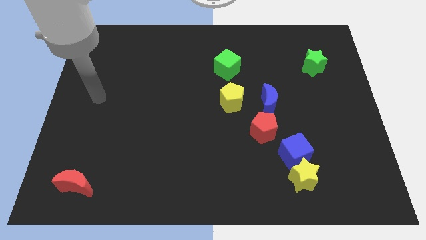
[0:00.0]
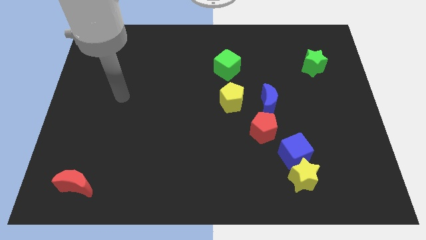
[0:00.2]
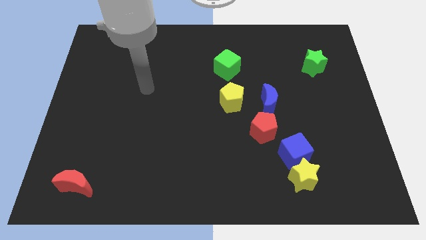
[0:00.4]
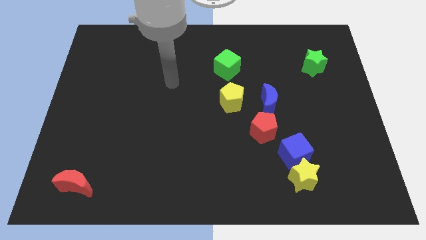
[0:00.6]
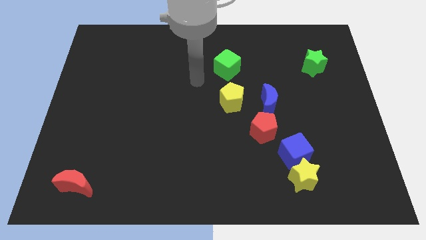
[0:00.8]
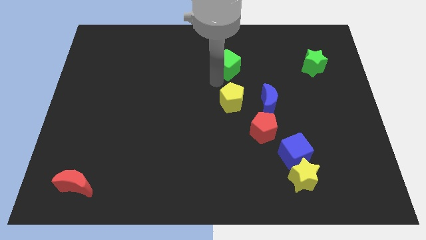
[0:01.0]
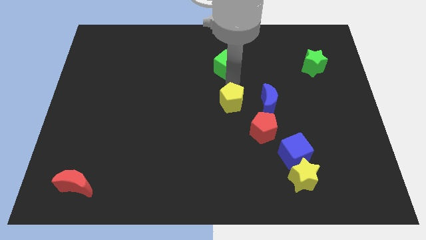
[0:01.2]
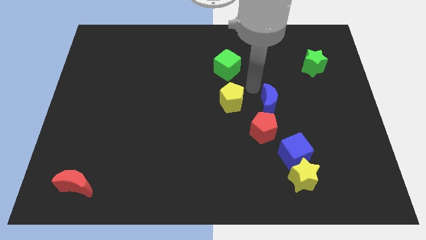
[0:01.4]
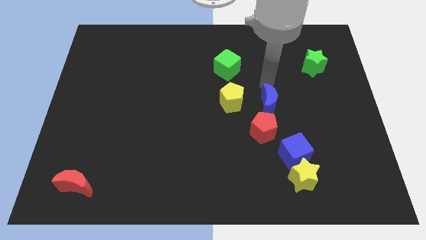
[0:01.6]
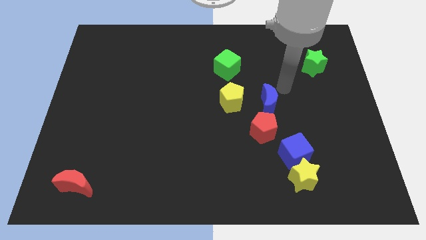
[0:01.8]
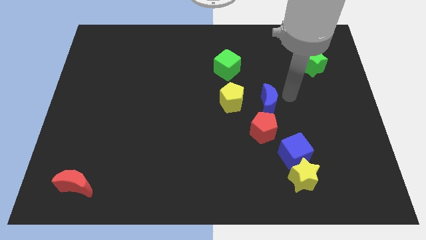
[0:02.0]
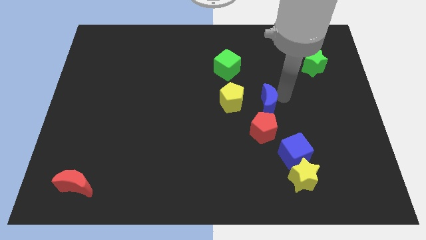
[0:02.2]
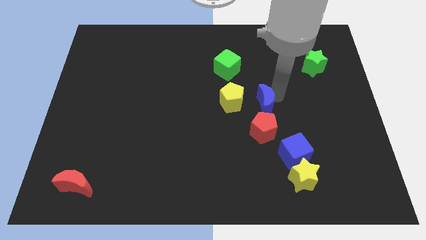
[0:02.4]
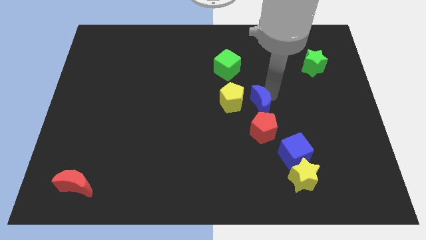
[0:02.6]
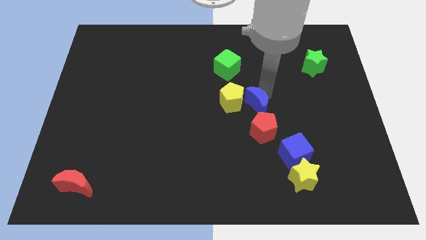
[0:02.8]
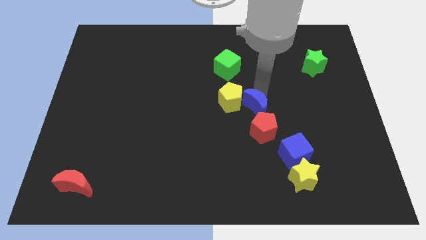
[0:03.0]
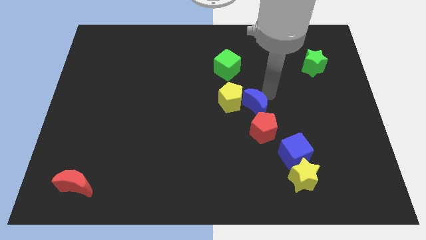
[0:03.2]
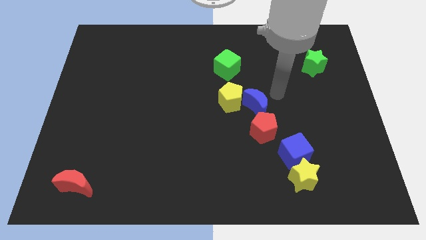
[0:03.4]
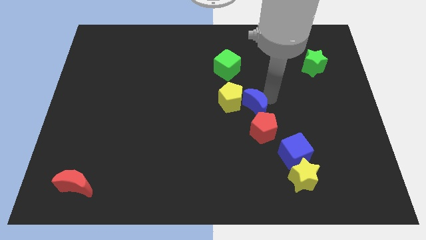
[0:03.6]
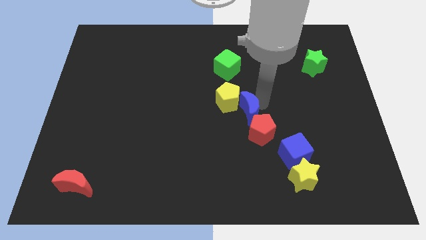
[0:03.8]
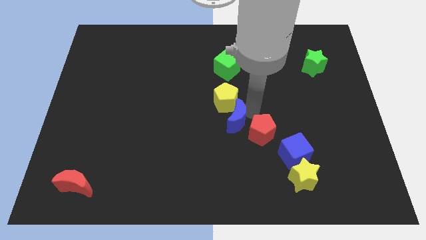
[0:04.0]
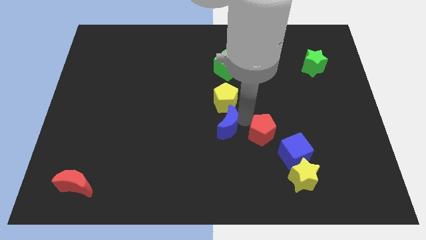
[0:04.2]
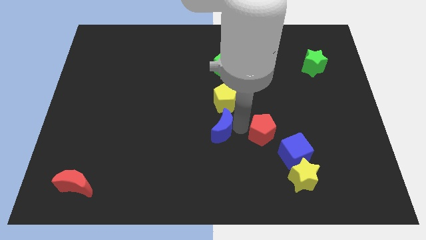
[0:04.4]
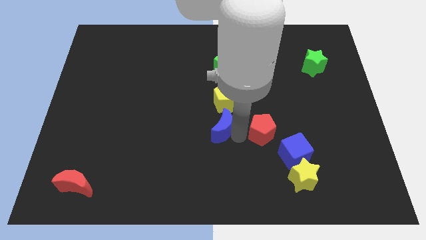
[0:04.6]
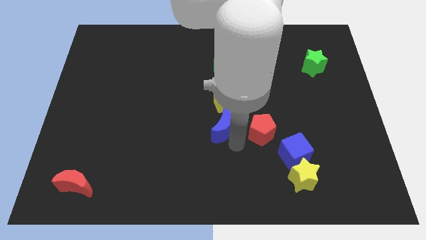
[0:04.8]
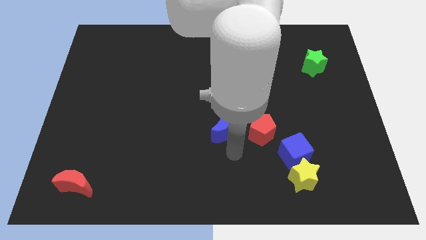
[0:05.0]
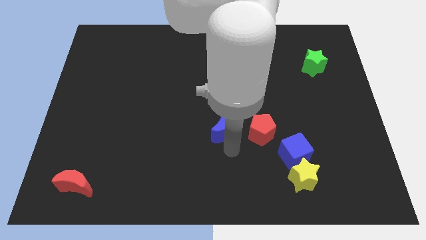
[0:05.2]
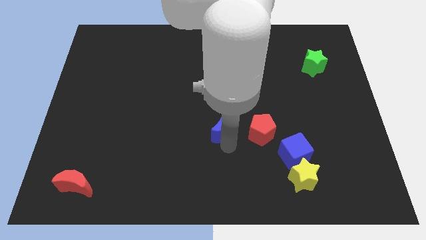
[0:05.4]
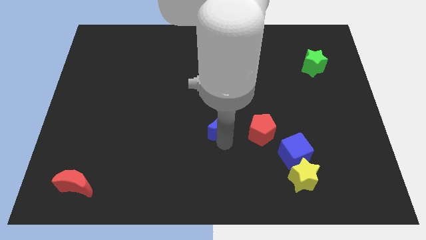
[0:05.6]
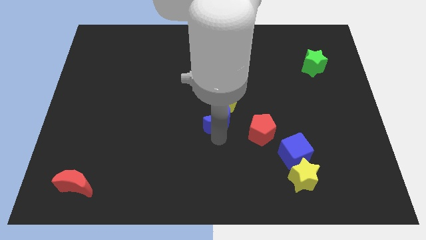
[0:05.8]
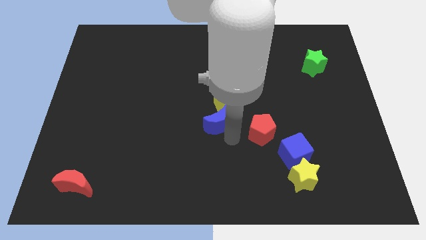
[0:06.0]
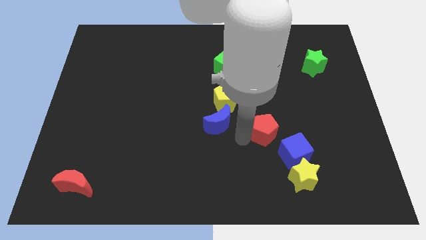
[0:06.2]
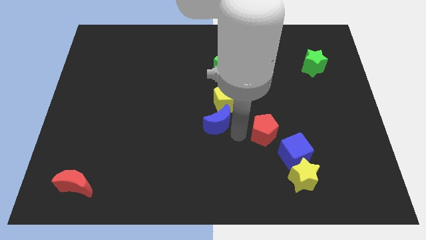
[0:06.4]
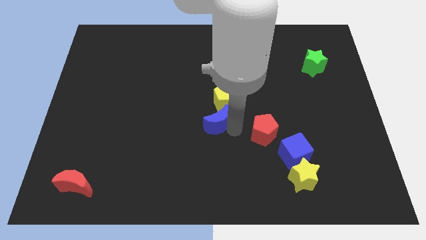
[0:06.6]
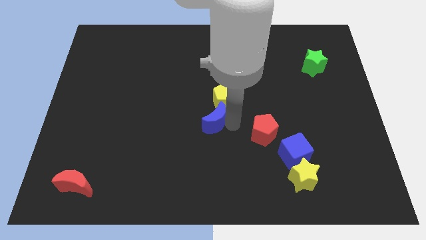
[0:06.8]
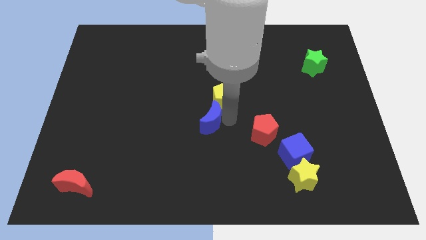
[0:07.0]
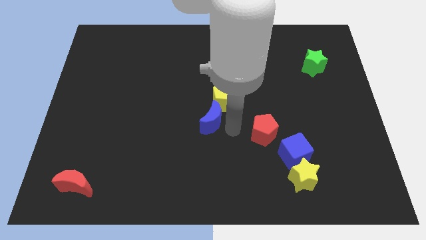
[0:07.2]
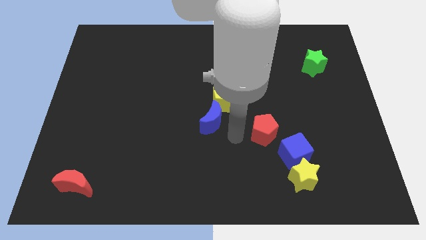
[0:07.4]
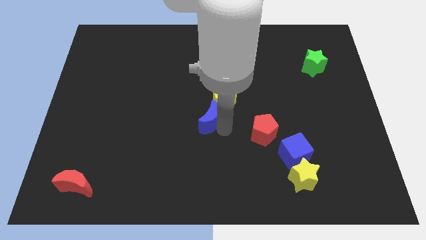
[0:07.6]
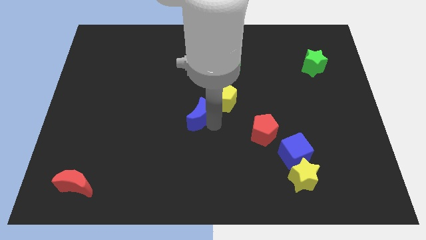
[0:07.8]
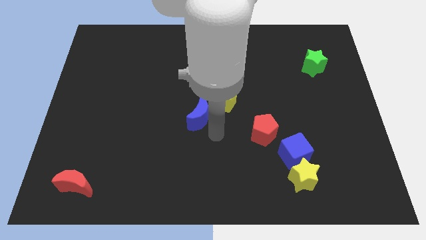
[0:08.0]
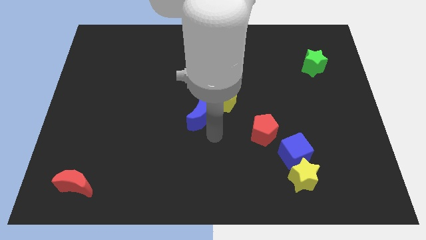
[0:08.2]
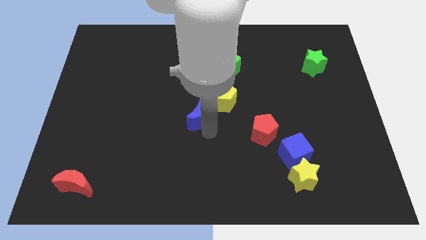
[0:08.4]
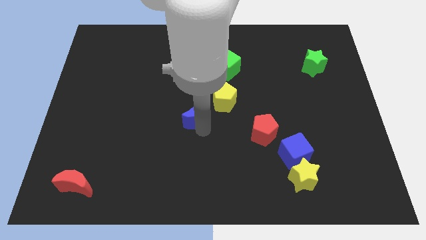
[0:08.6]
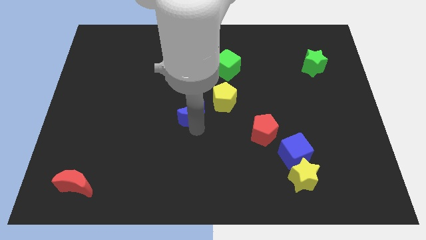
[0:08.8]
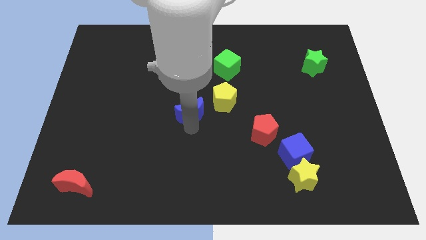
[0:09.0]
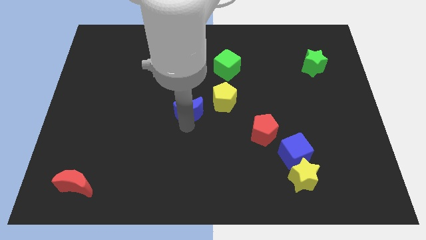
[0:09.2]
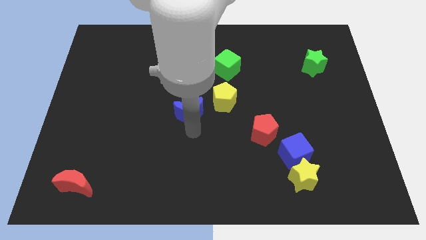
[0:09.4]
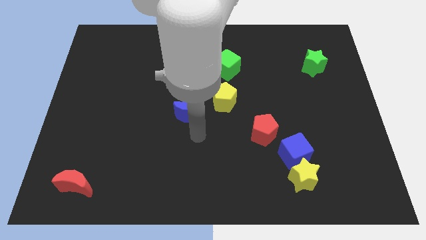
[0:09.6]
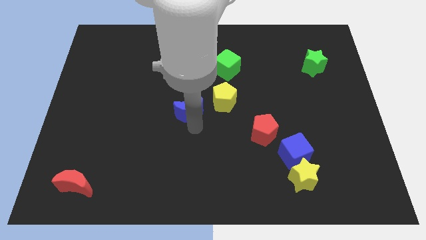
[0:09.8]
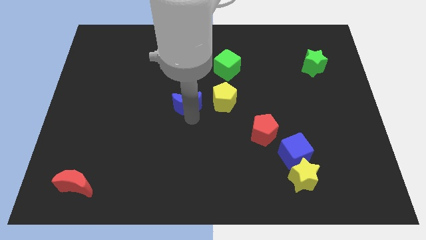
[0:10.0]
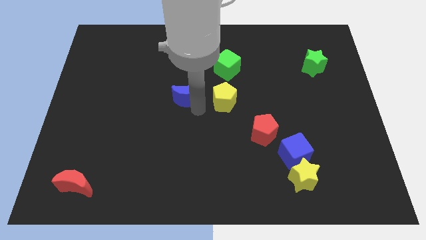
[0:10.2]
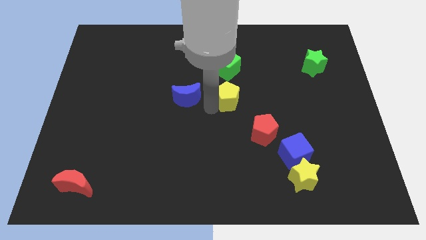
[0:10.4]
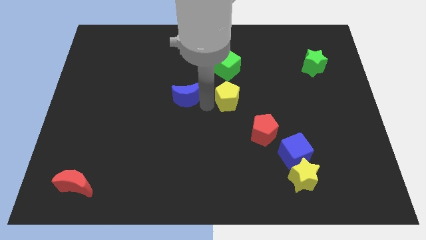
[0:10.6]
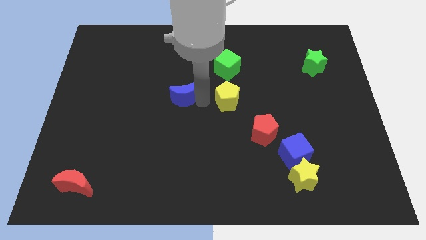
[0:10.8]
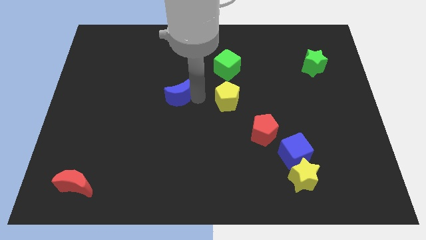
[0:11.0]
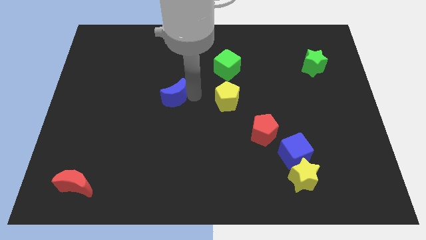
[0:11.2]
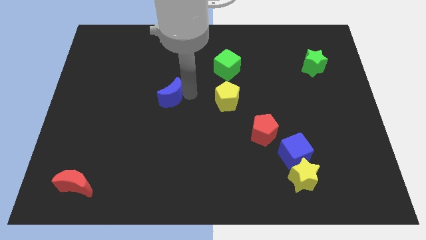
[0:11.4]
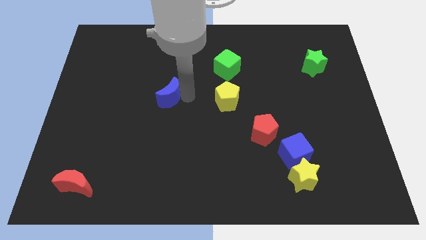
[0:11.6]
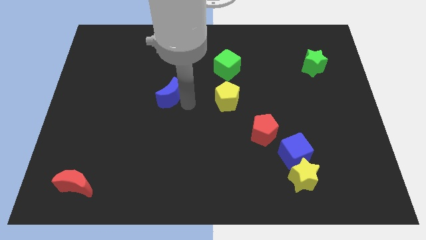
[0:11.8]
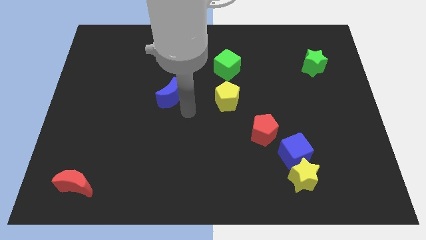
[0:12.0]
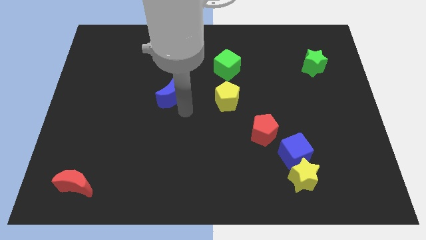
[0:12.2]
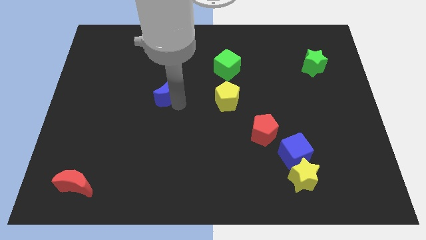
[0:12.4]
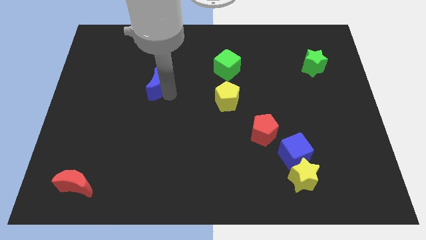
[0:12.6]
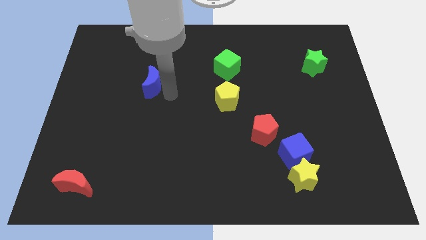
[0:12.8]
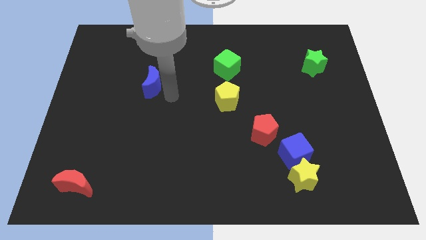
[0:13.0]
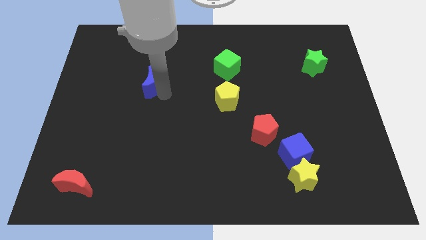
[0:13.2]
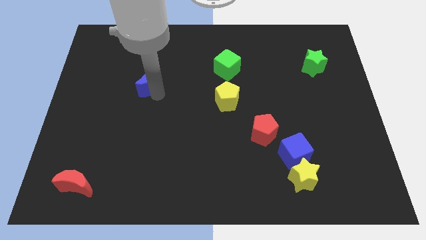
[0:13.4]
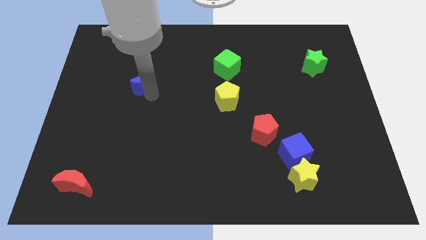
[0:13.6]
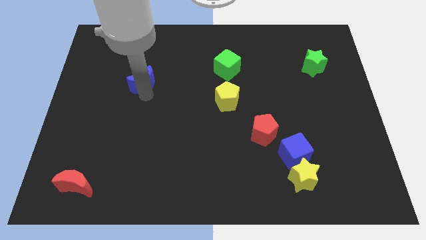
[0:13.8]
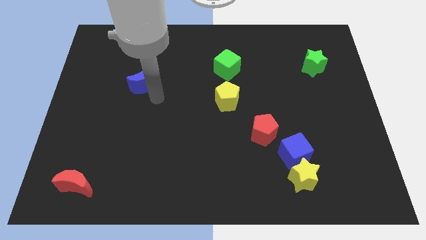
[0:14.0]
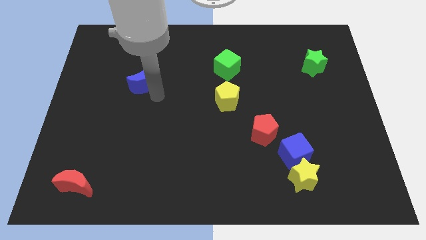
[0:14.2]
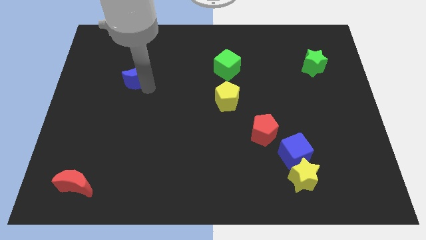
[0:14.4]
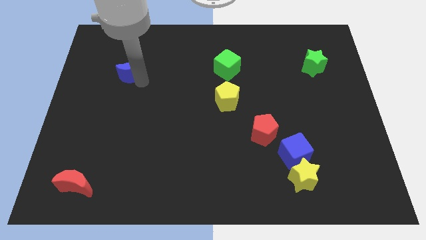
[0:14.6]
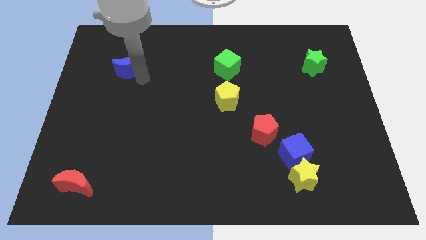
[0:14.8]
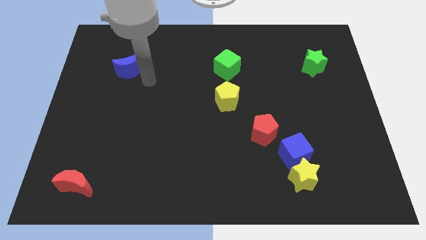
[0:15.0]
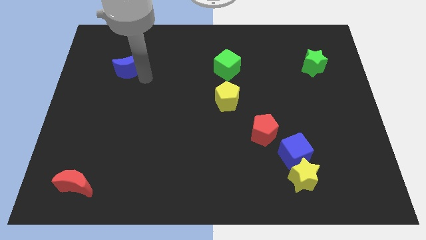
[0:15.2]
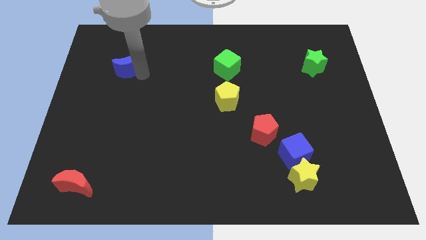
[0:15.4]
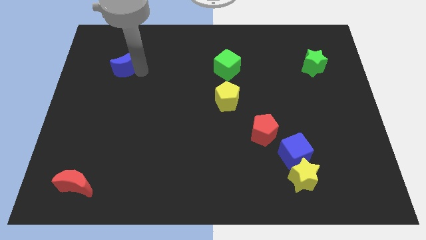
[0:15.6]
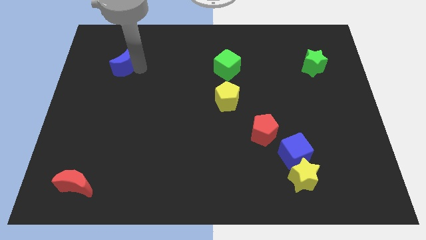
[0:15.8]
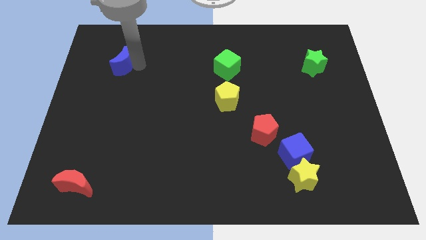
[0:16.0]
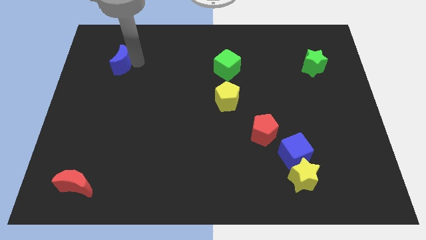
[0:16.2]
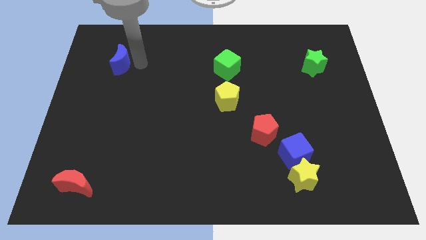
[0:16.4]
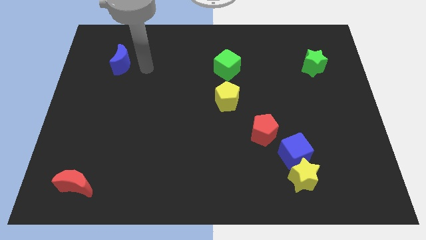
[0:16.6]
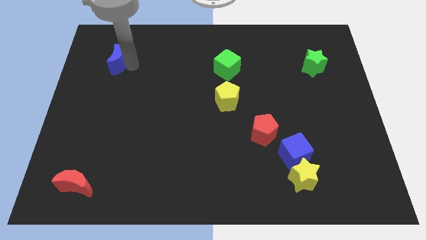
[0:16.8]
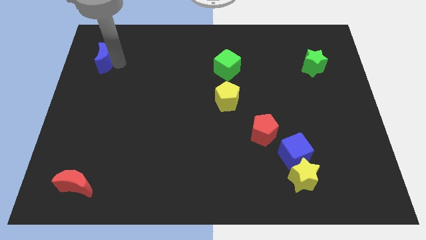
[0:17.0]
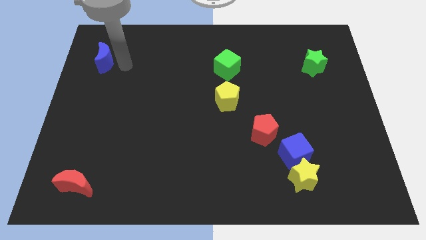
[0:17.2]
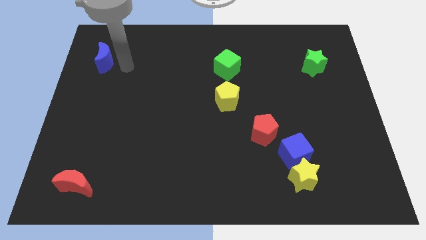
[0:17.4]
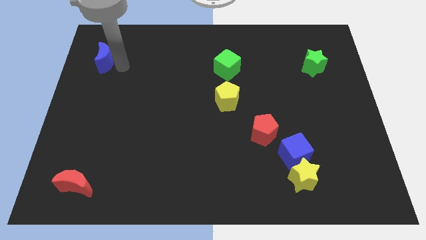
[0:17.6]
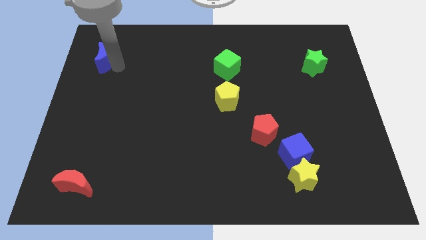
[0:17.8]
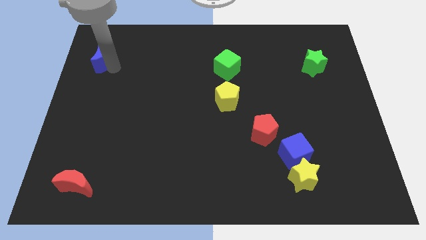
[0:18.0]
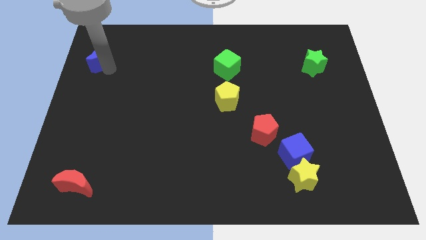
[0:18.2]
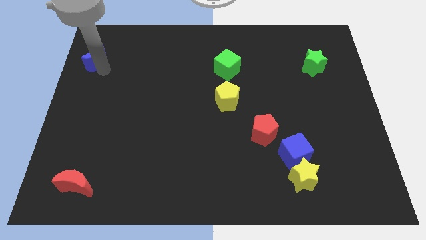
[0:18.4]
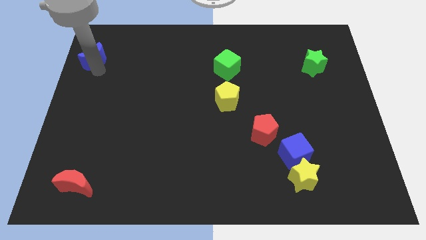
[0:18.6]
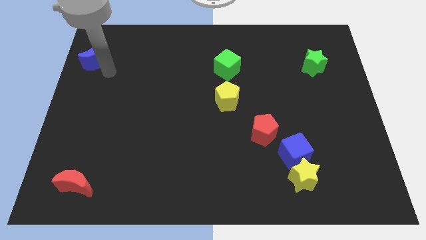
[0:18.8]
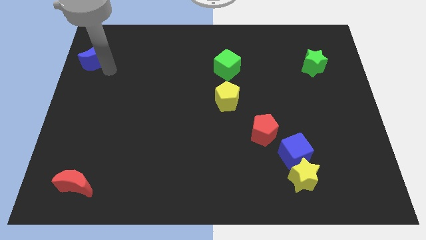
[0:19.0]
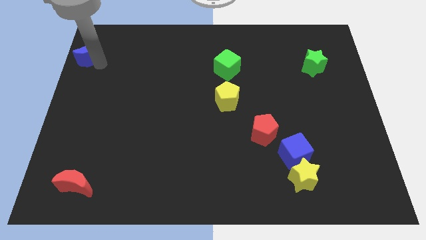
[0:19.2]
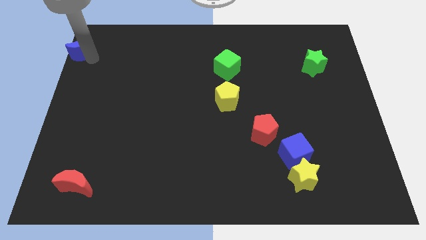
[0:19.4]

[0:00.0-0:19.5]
move the blue moon to the top left corner
